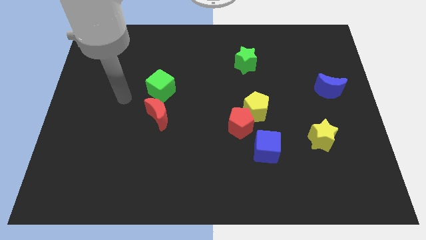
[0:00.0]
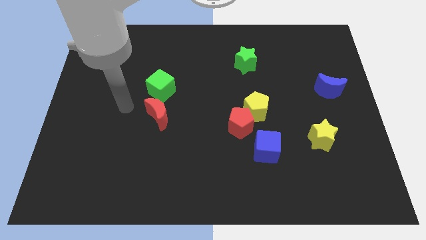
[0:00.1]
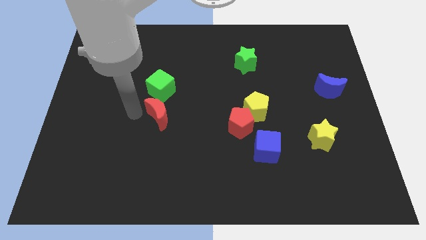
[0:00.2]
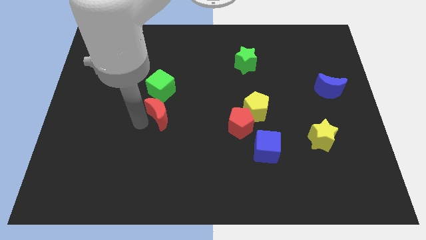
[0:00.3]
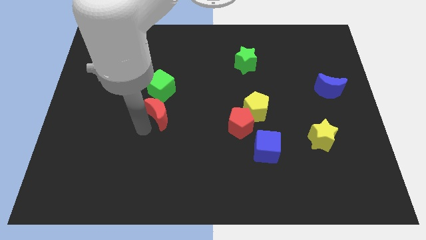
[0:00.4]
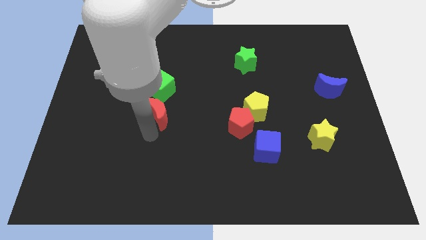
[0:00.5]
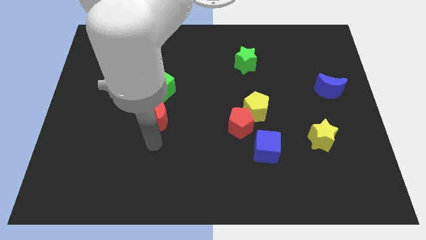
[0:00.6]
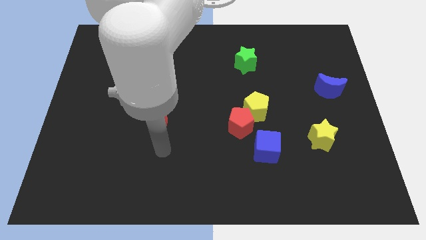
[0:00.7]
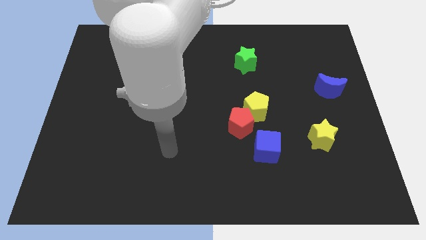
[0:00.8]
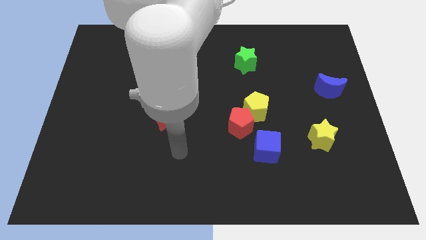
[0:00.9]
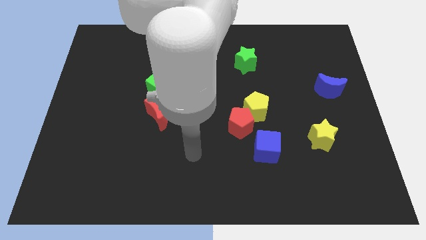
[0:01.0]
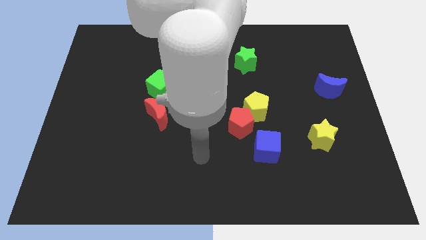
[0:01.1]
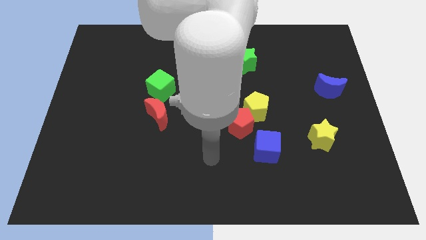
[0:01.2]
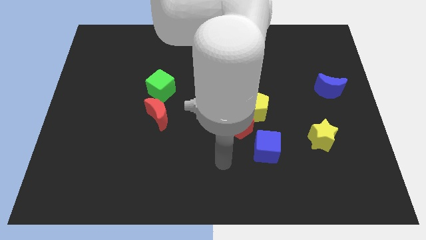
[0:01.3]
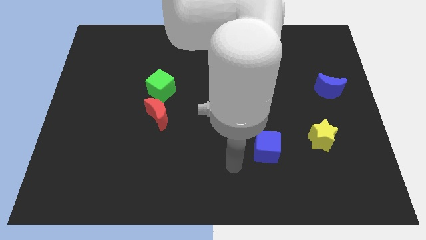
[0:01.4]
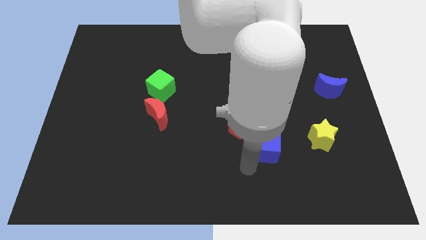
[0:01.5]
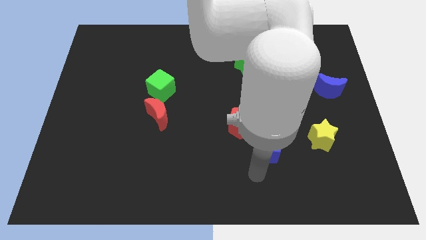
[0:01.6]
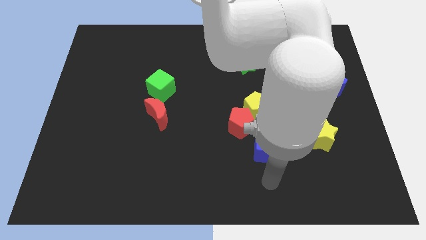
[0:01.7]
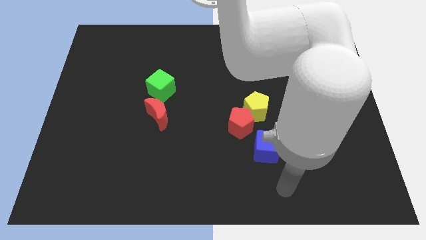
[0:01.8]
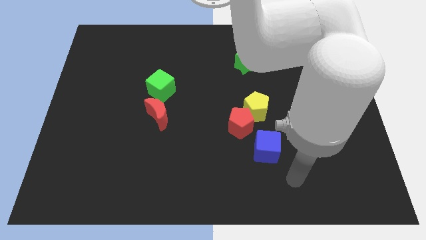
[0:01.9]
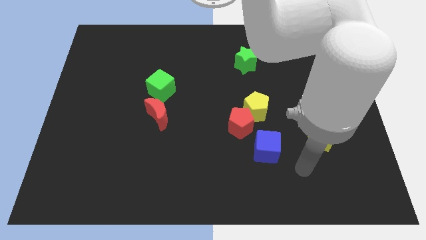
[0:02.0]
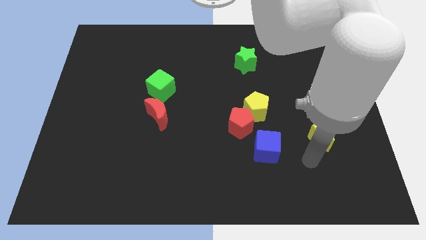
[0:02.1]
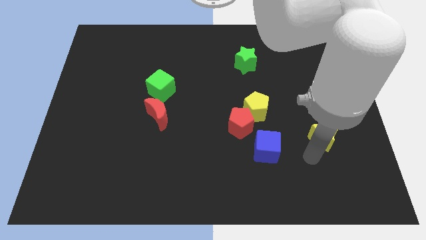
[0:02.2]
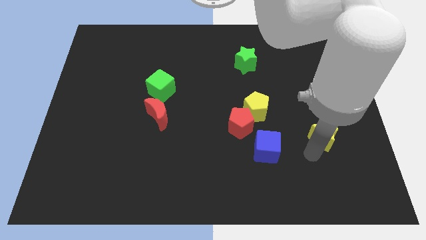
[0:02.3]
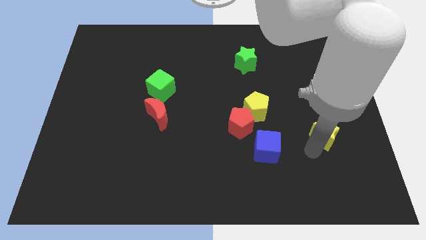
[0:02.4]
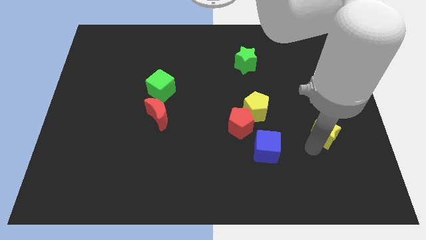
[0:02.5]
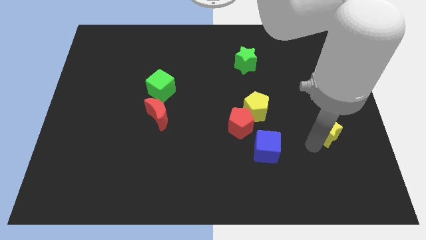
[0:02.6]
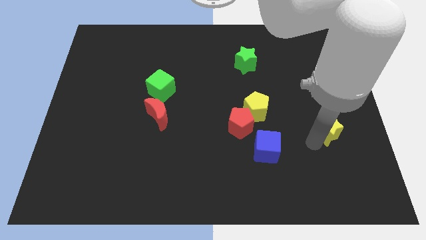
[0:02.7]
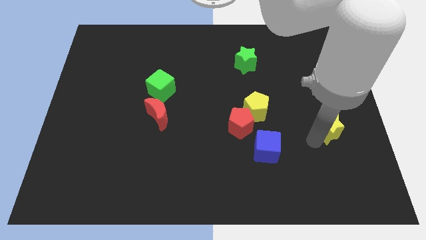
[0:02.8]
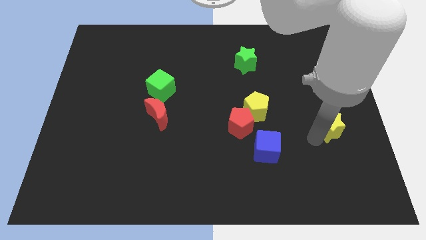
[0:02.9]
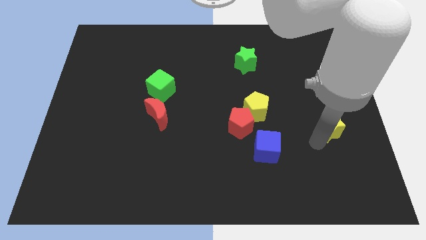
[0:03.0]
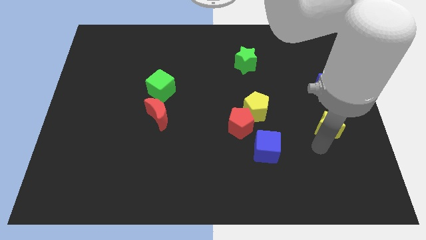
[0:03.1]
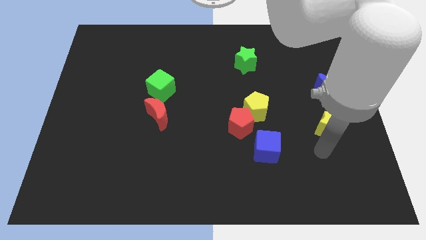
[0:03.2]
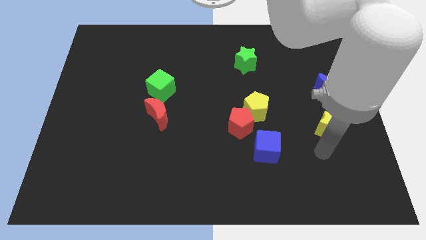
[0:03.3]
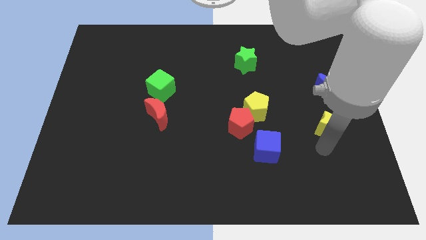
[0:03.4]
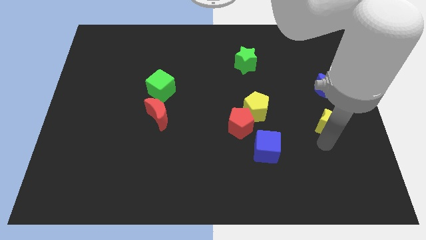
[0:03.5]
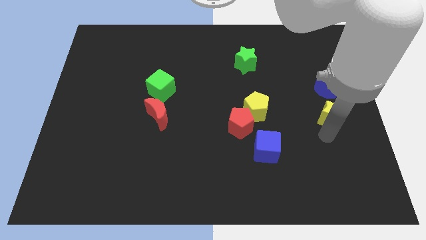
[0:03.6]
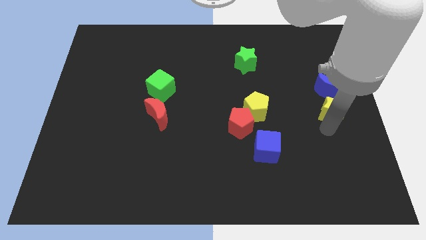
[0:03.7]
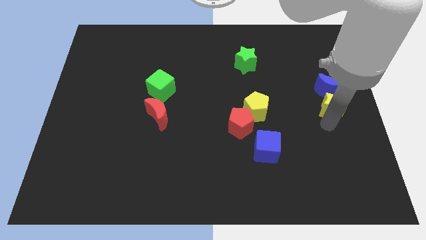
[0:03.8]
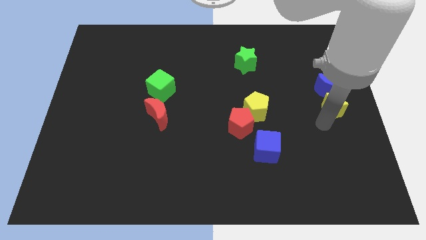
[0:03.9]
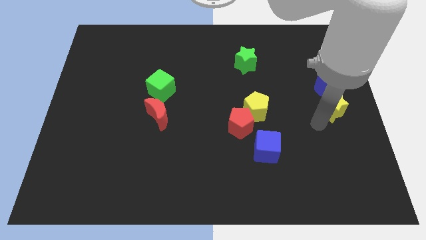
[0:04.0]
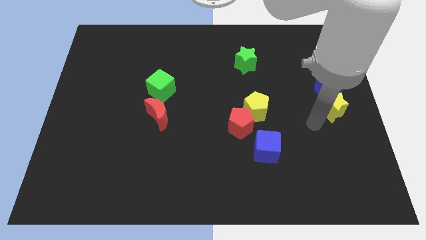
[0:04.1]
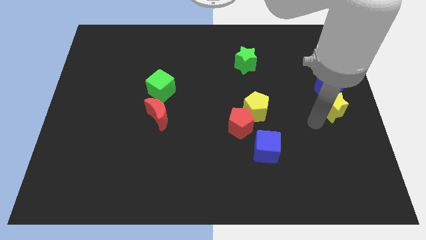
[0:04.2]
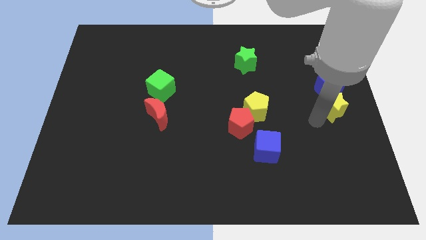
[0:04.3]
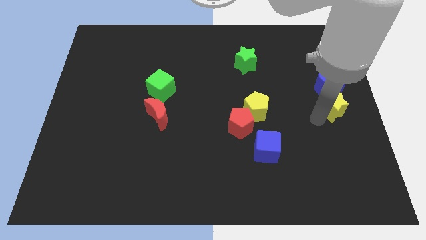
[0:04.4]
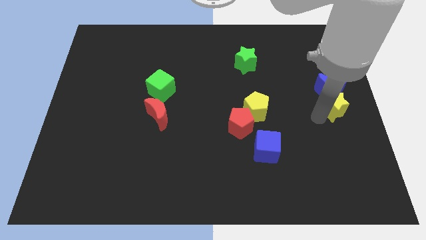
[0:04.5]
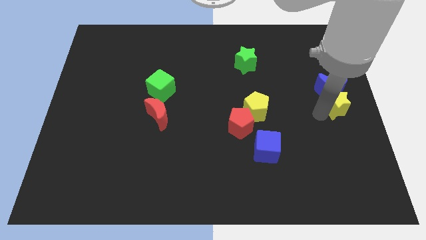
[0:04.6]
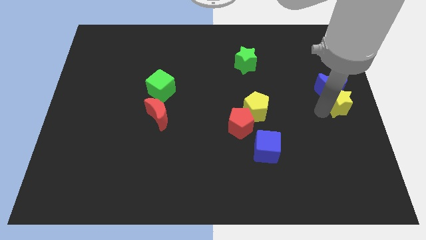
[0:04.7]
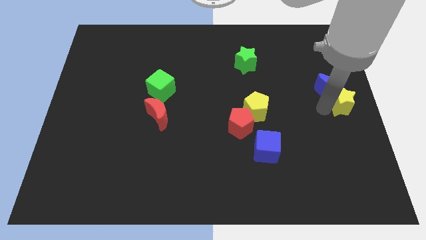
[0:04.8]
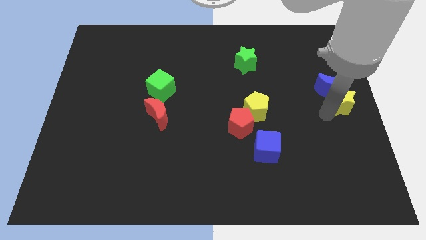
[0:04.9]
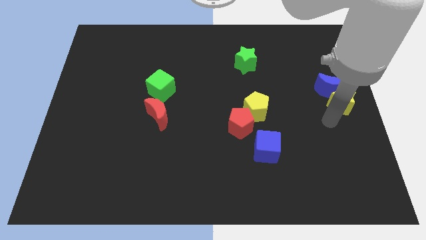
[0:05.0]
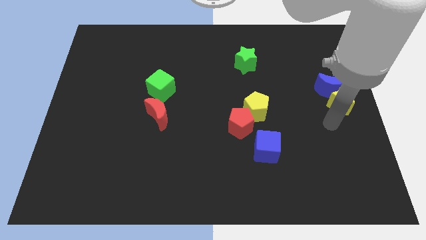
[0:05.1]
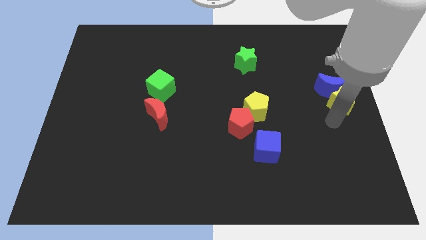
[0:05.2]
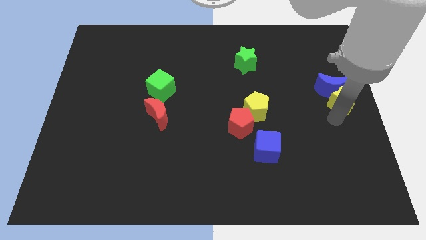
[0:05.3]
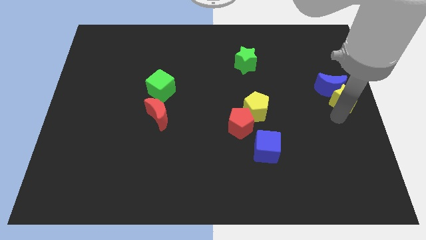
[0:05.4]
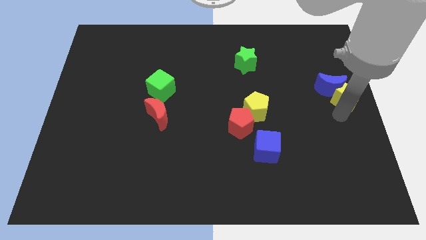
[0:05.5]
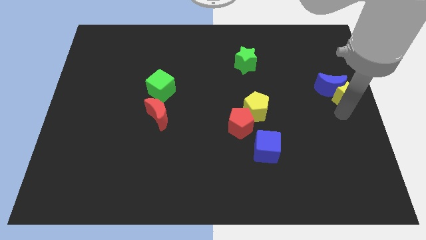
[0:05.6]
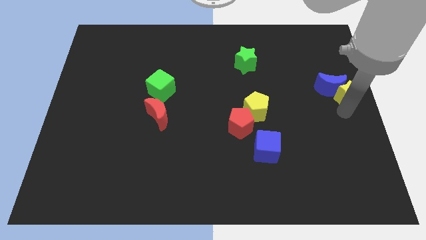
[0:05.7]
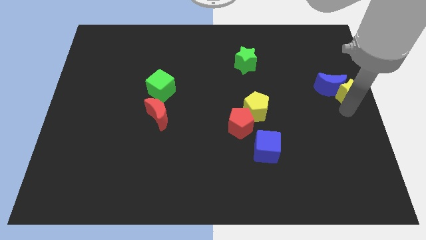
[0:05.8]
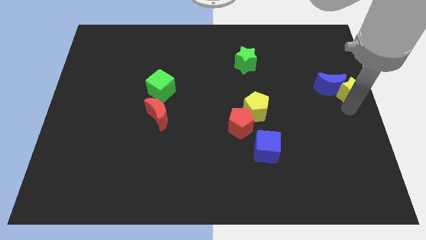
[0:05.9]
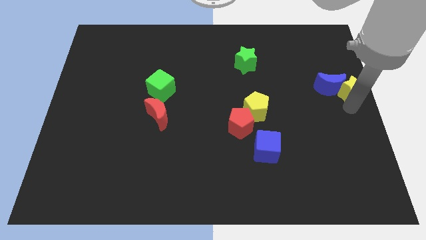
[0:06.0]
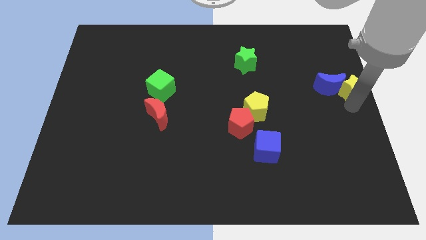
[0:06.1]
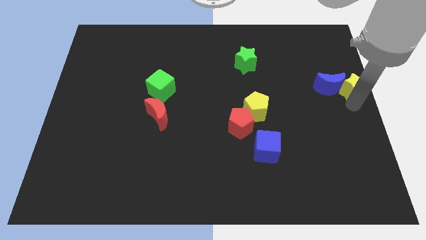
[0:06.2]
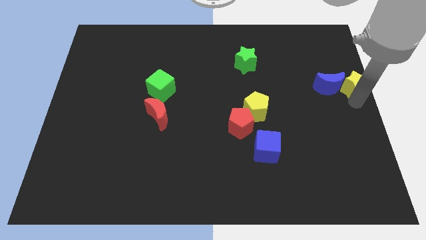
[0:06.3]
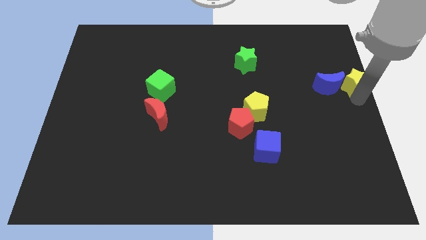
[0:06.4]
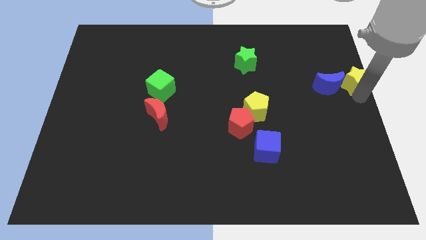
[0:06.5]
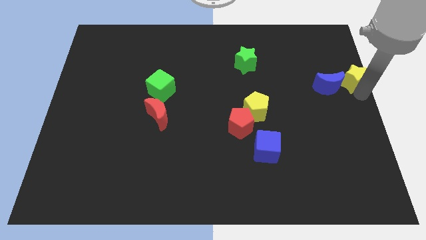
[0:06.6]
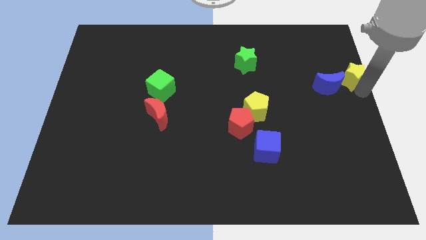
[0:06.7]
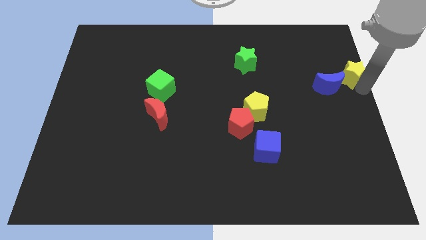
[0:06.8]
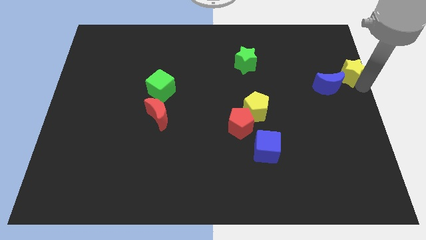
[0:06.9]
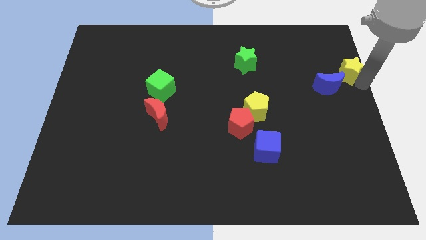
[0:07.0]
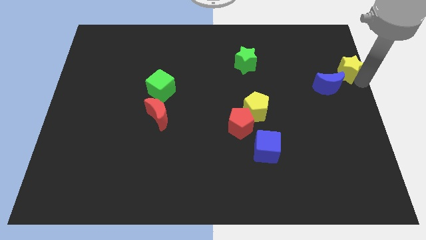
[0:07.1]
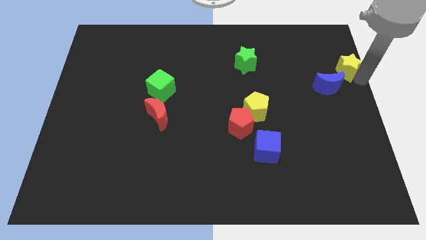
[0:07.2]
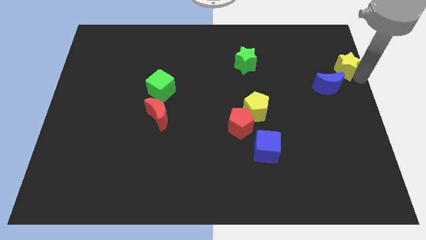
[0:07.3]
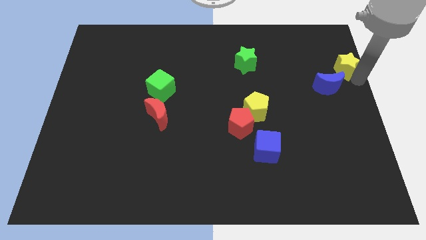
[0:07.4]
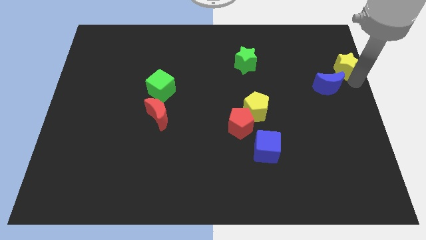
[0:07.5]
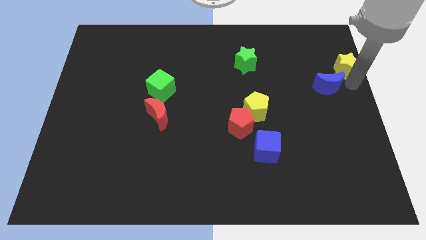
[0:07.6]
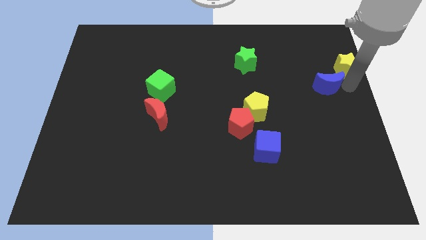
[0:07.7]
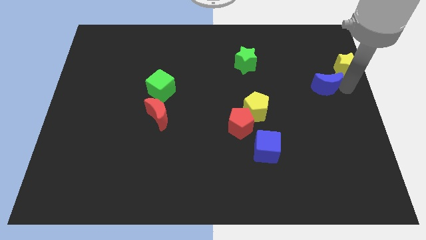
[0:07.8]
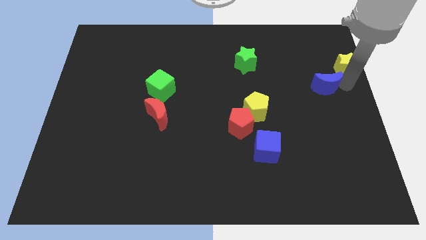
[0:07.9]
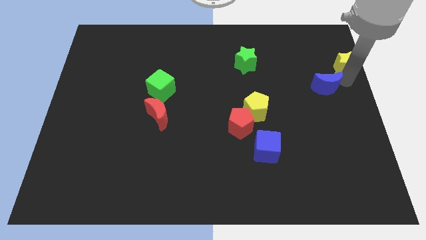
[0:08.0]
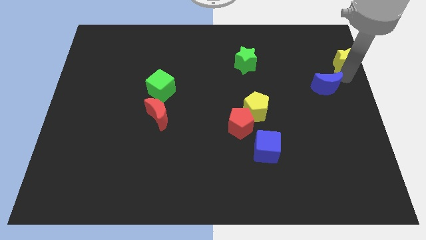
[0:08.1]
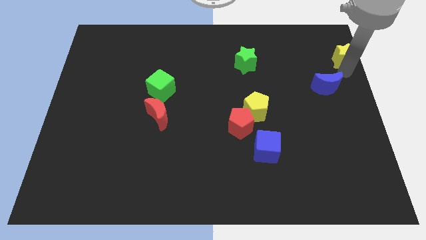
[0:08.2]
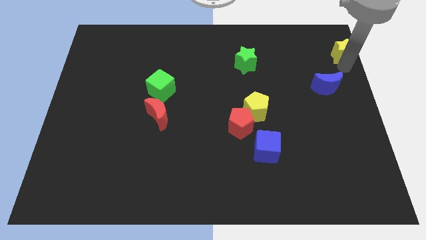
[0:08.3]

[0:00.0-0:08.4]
push the yellow star to the top right
